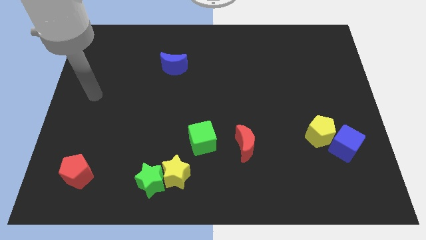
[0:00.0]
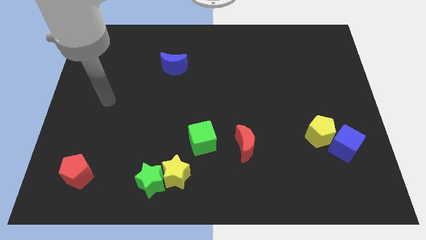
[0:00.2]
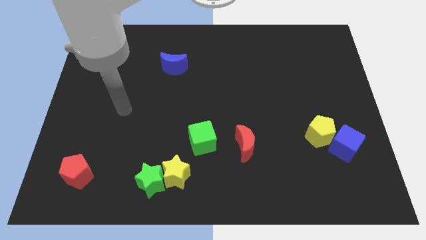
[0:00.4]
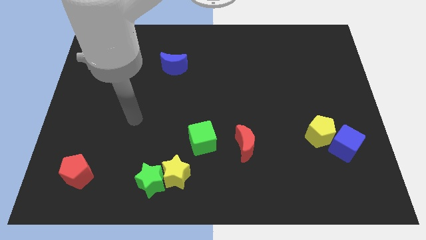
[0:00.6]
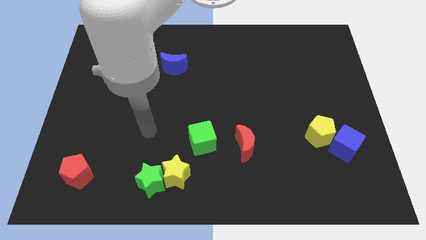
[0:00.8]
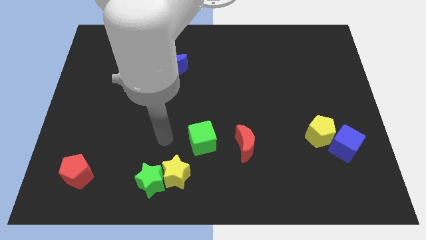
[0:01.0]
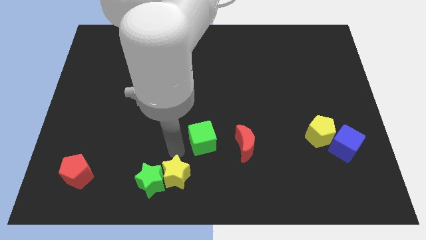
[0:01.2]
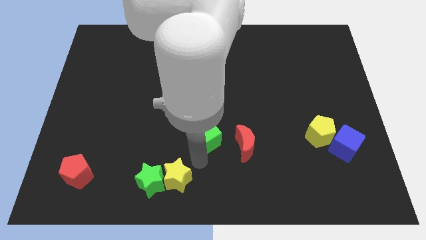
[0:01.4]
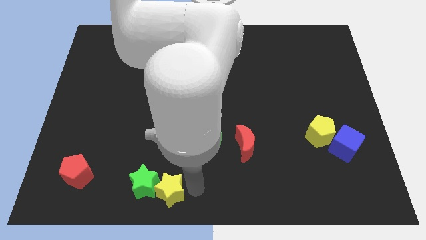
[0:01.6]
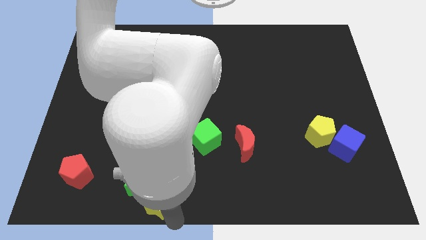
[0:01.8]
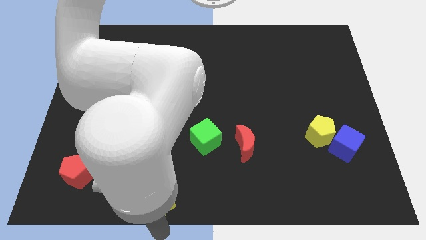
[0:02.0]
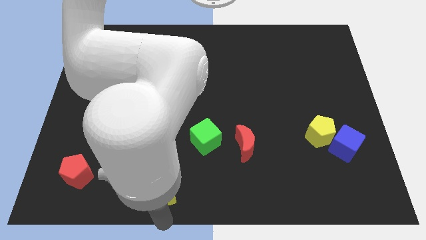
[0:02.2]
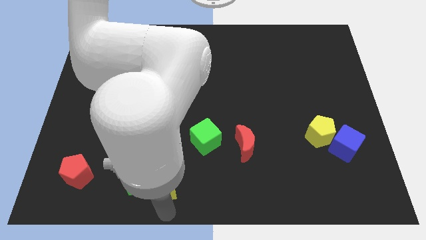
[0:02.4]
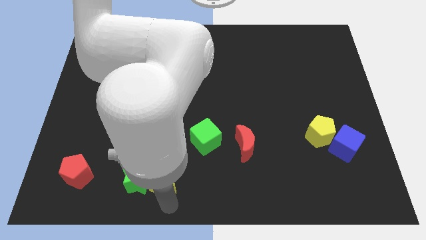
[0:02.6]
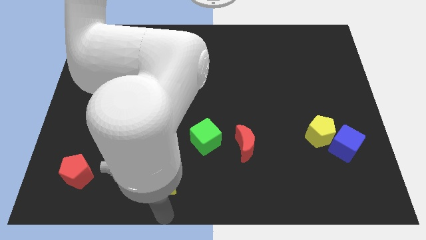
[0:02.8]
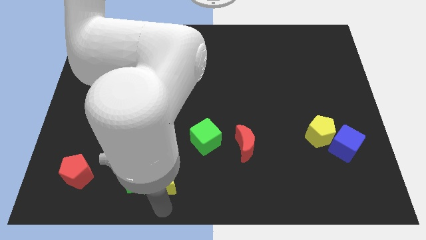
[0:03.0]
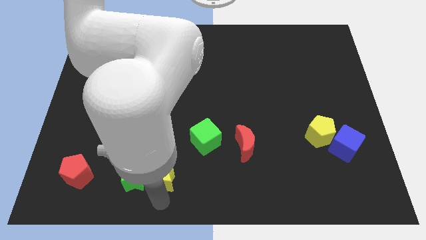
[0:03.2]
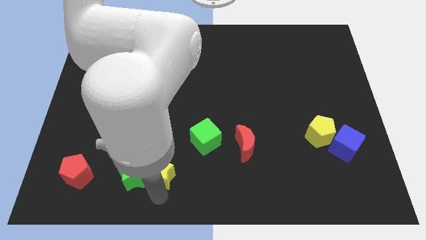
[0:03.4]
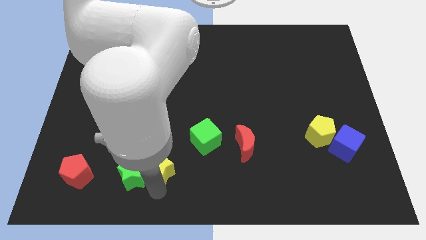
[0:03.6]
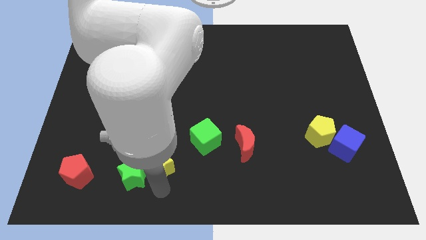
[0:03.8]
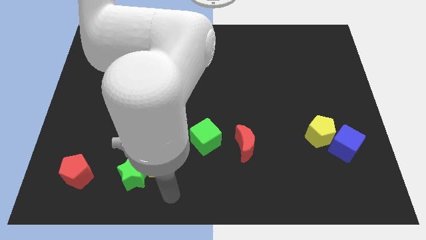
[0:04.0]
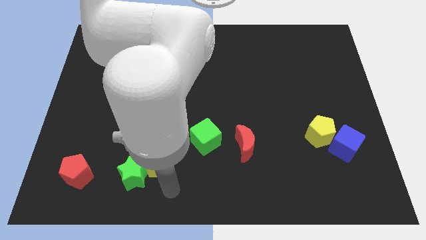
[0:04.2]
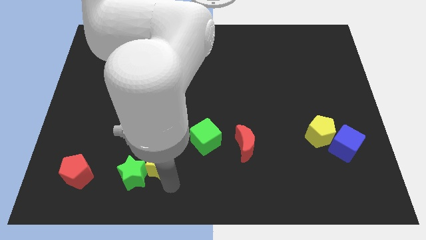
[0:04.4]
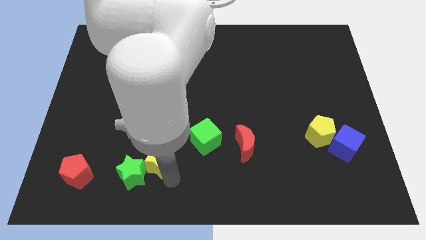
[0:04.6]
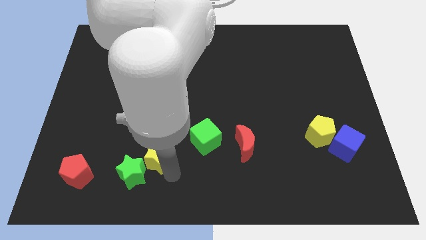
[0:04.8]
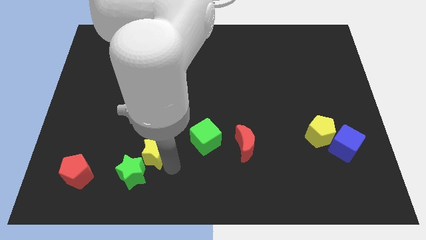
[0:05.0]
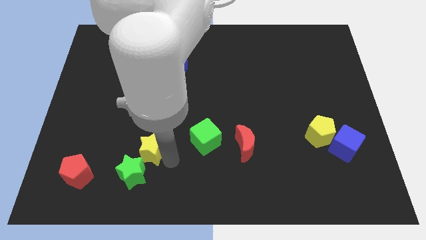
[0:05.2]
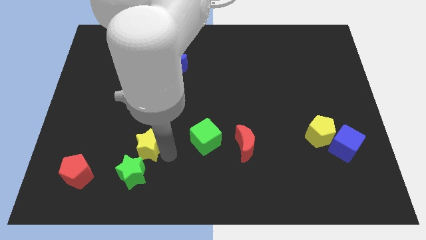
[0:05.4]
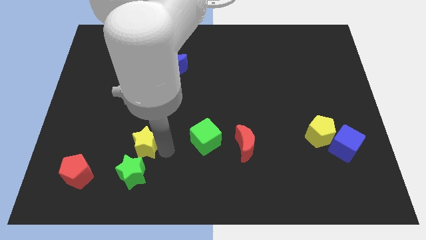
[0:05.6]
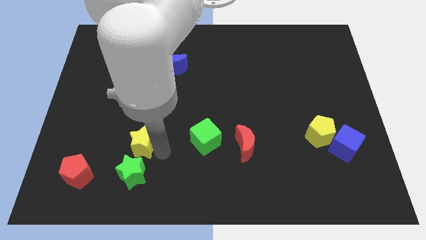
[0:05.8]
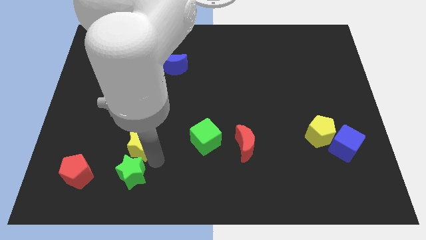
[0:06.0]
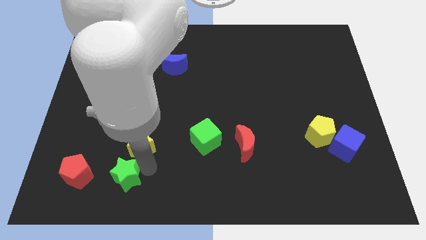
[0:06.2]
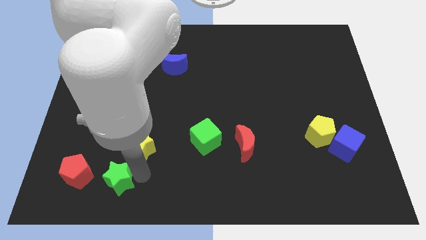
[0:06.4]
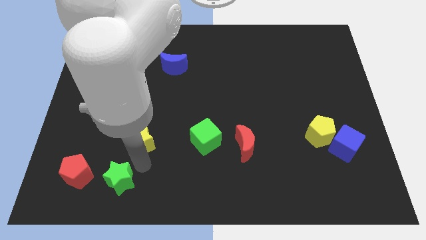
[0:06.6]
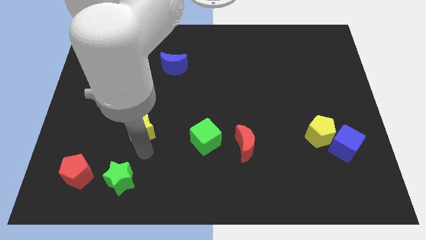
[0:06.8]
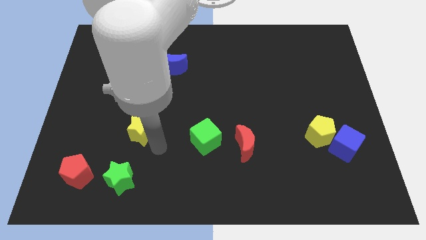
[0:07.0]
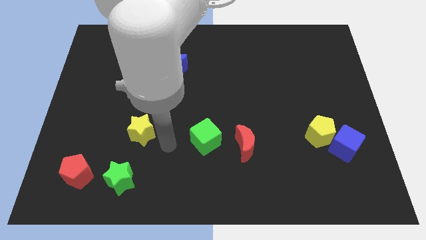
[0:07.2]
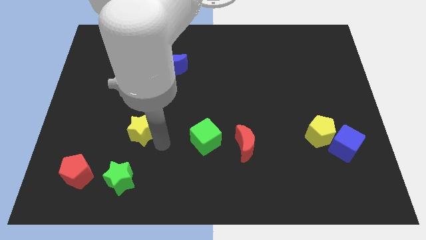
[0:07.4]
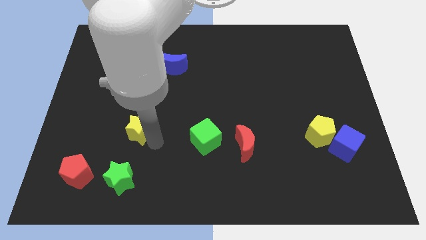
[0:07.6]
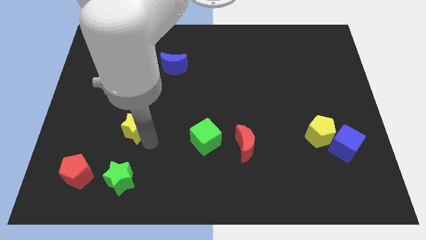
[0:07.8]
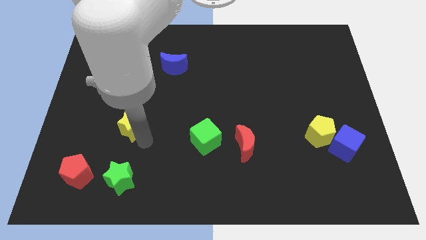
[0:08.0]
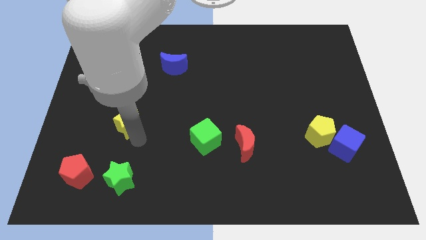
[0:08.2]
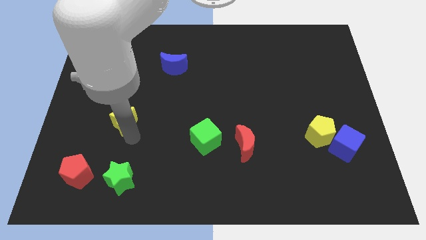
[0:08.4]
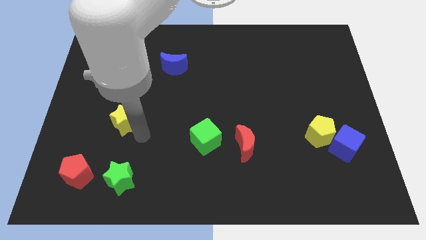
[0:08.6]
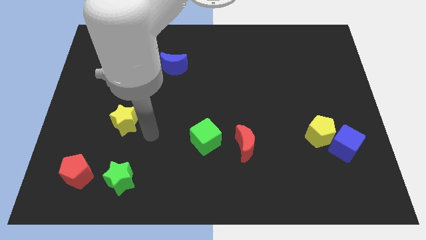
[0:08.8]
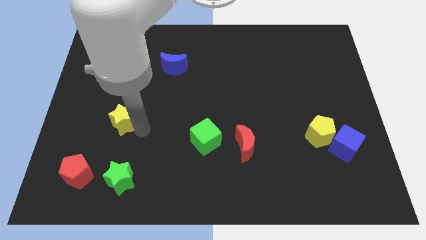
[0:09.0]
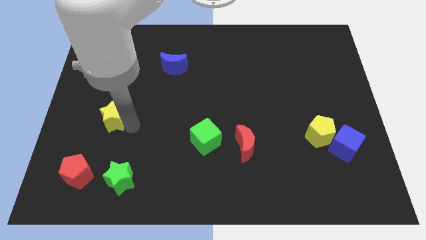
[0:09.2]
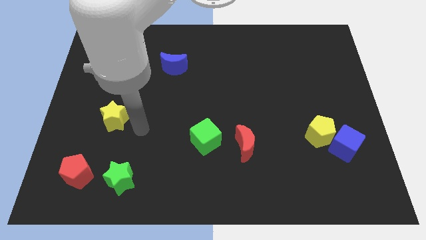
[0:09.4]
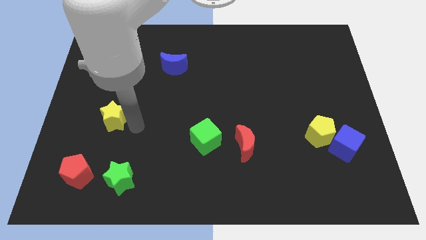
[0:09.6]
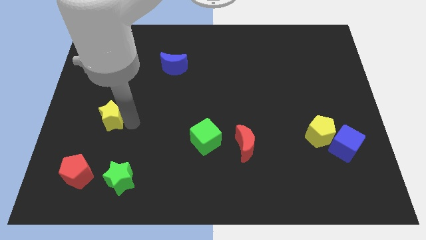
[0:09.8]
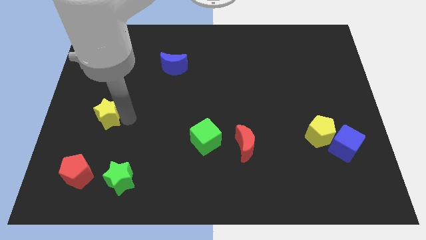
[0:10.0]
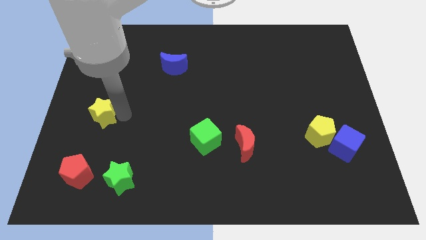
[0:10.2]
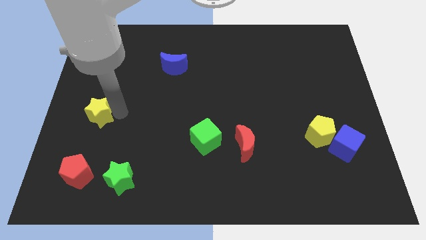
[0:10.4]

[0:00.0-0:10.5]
slide the yellow star to the left side

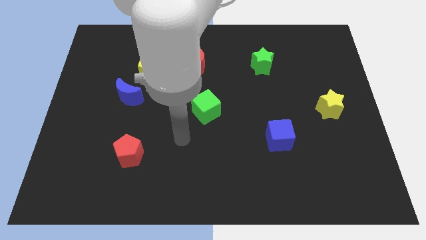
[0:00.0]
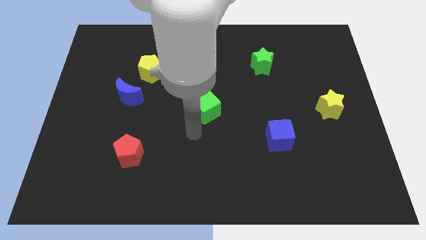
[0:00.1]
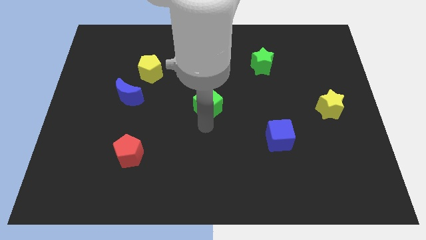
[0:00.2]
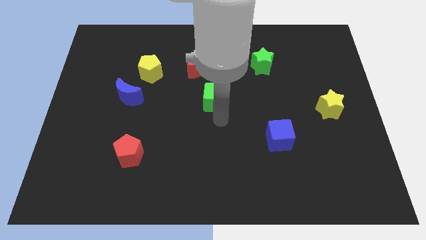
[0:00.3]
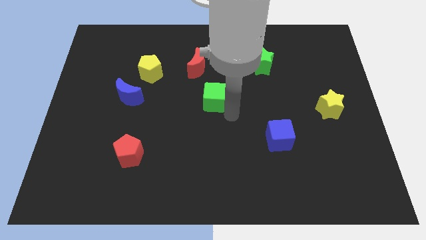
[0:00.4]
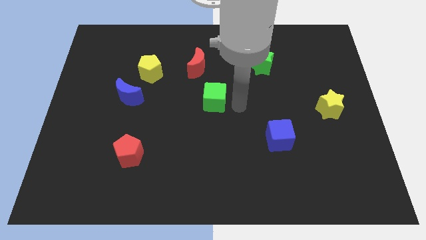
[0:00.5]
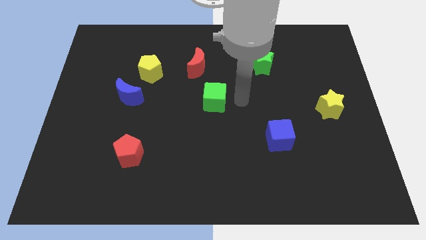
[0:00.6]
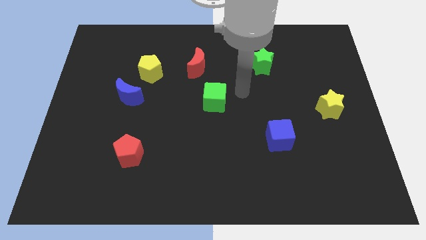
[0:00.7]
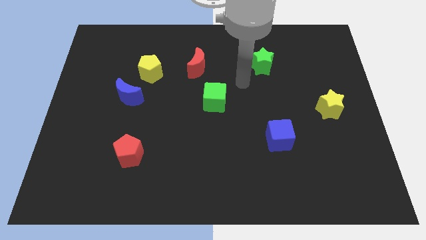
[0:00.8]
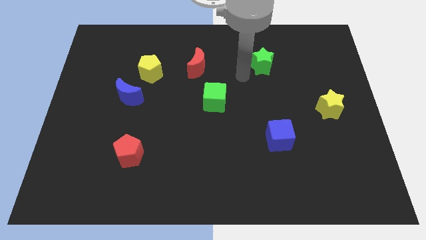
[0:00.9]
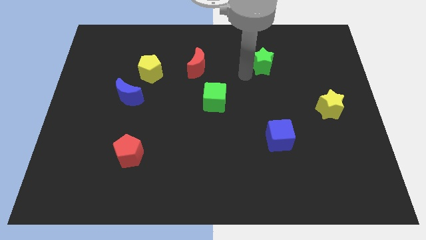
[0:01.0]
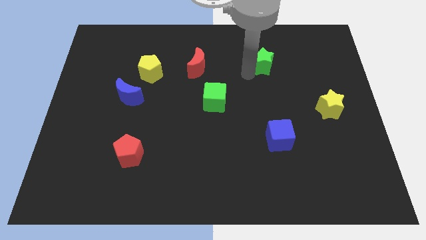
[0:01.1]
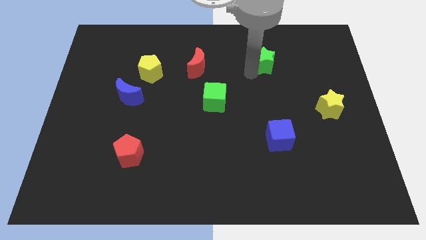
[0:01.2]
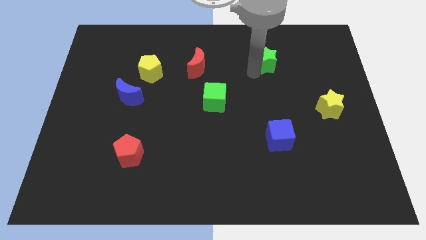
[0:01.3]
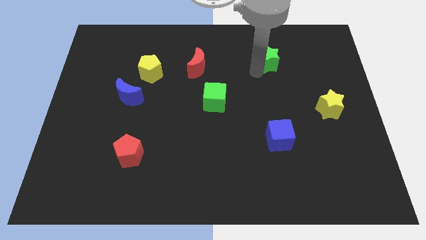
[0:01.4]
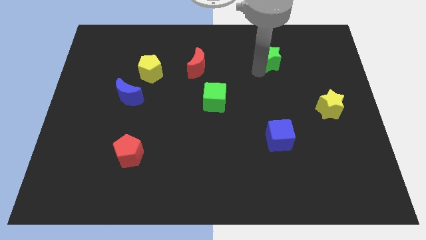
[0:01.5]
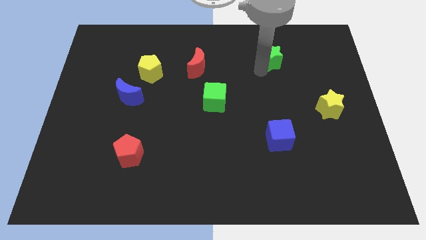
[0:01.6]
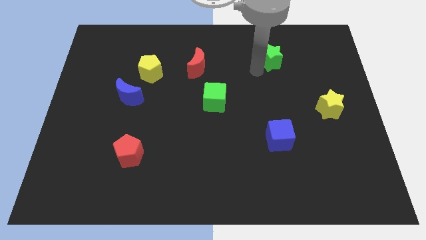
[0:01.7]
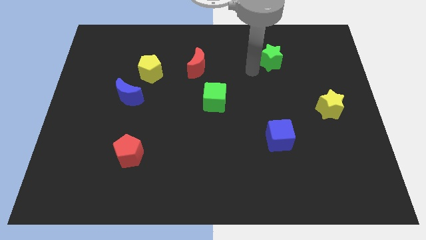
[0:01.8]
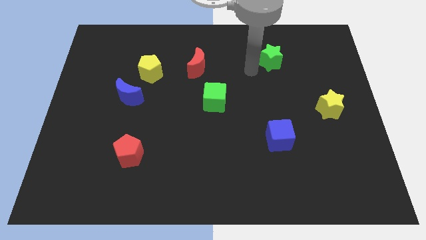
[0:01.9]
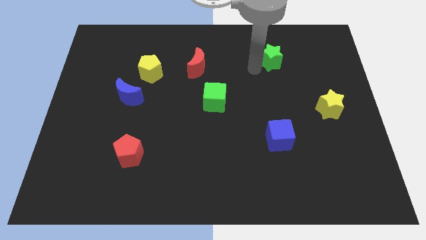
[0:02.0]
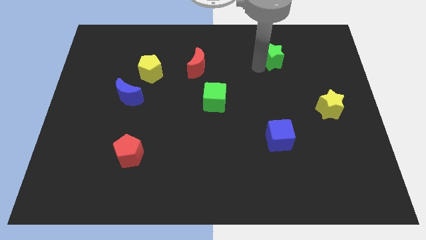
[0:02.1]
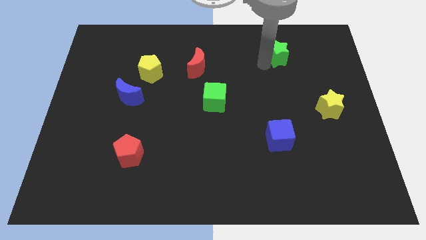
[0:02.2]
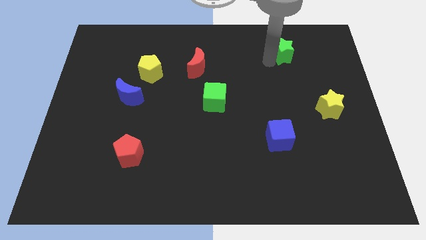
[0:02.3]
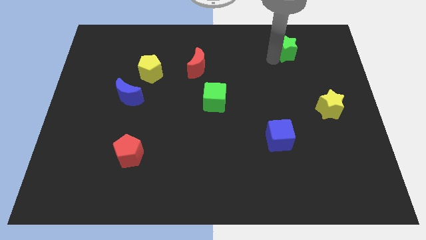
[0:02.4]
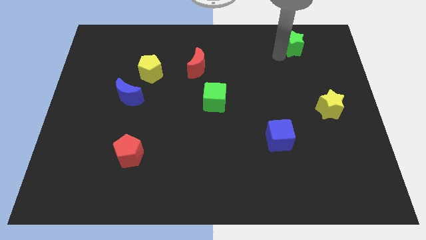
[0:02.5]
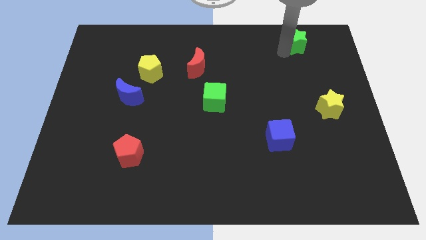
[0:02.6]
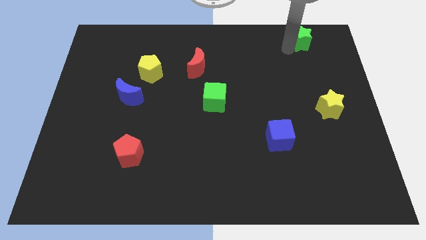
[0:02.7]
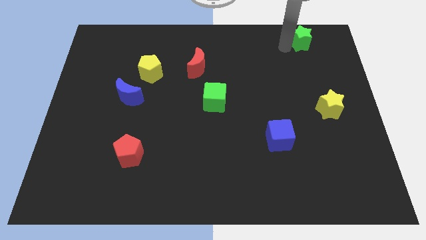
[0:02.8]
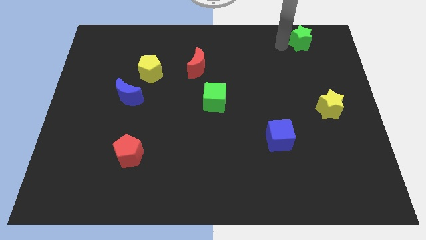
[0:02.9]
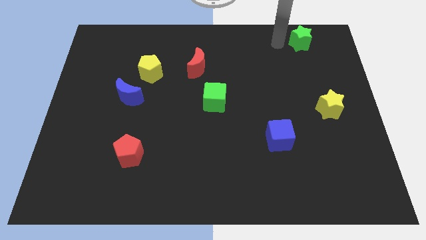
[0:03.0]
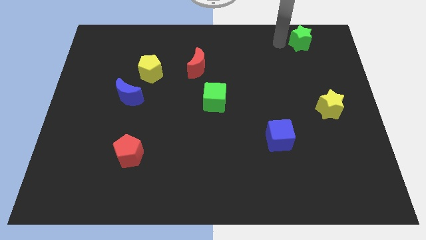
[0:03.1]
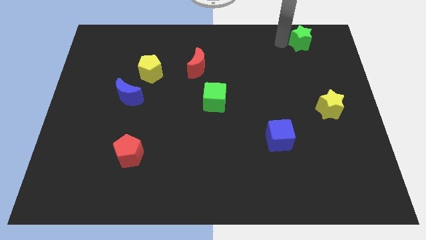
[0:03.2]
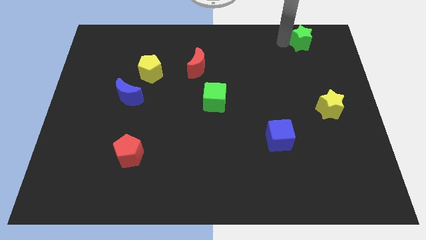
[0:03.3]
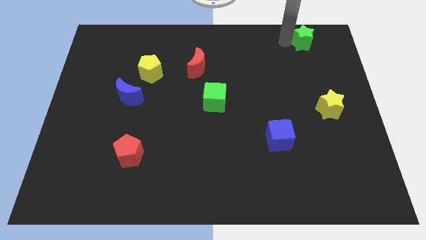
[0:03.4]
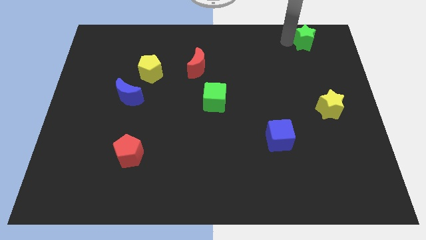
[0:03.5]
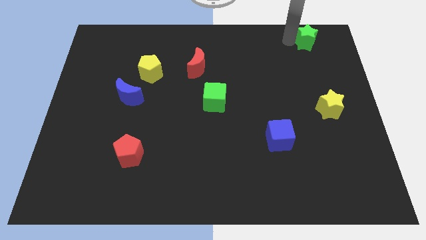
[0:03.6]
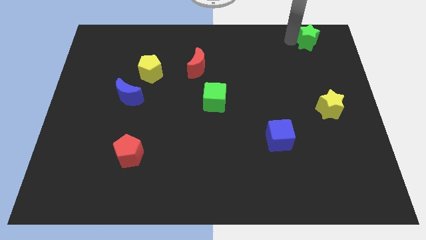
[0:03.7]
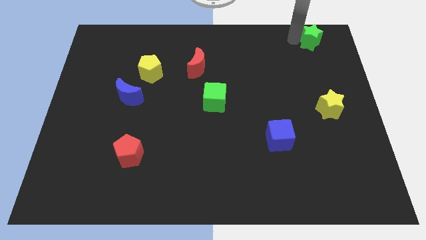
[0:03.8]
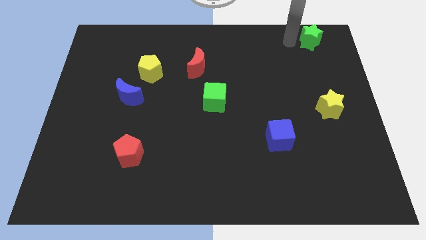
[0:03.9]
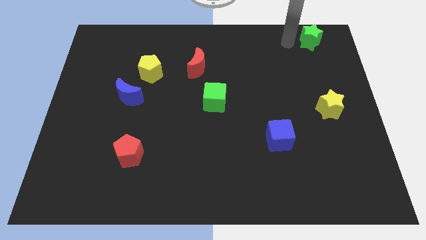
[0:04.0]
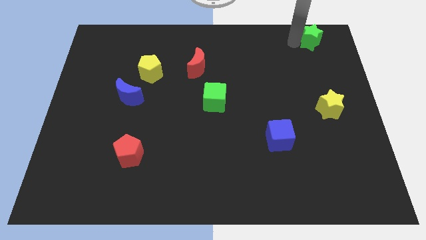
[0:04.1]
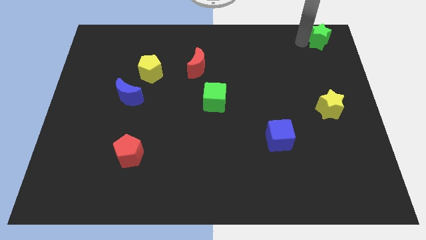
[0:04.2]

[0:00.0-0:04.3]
slide the green star to the top right of the board
